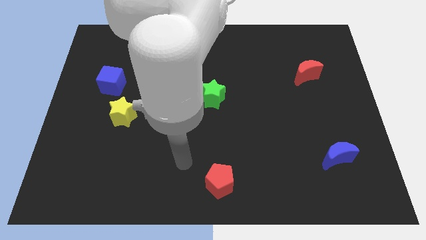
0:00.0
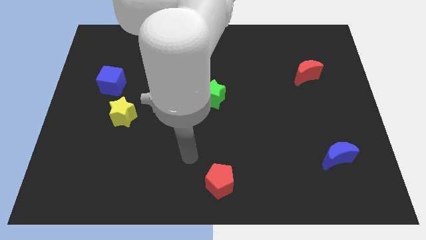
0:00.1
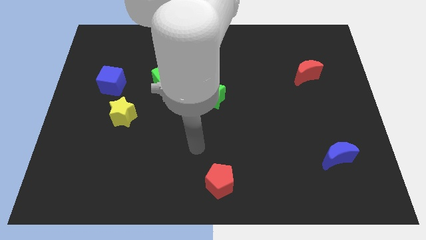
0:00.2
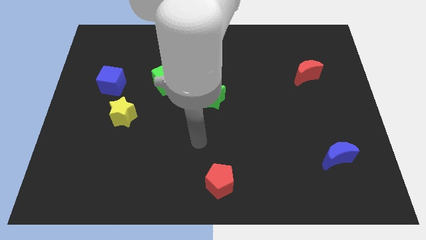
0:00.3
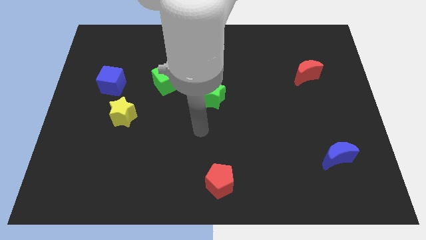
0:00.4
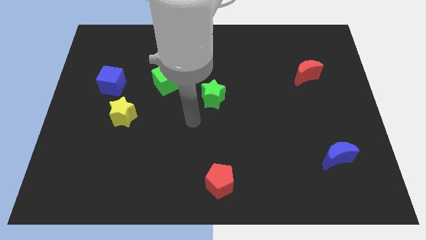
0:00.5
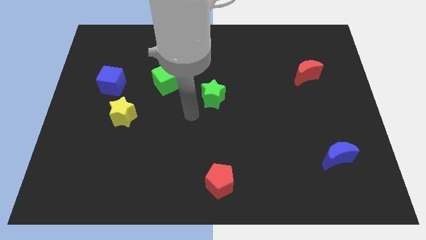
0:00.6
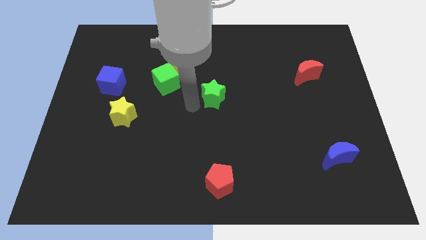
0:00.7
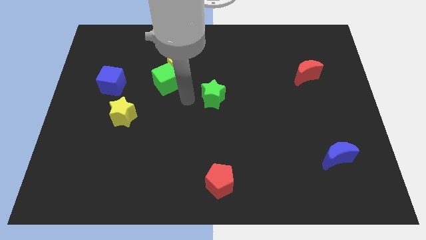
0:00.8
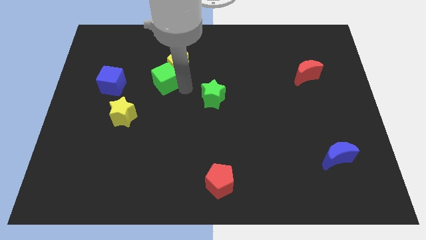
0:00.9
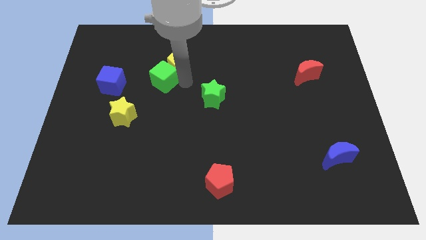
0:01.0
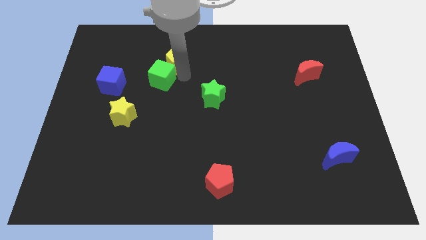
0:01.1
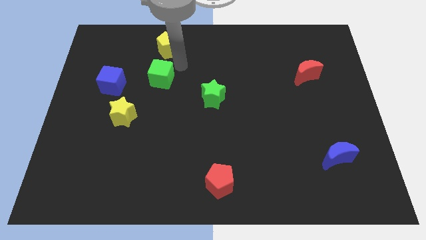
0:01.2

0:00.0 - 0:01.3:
pull the green cube apart from the yellow pentagon

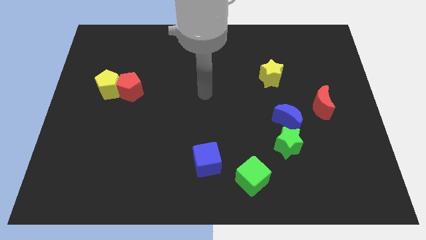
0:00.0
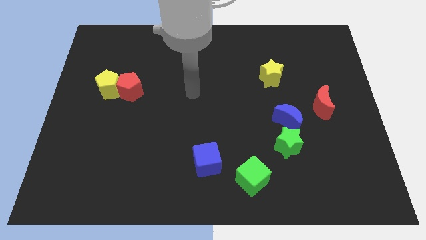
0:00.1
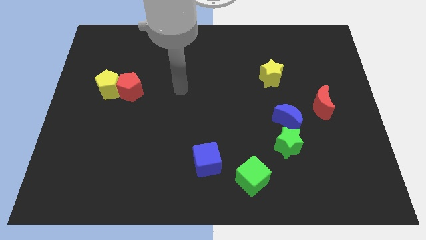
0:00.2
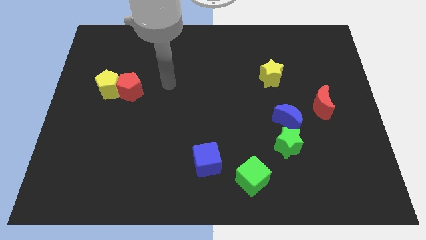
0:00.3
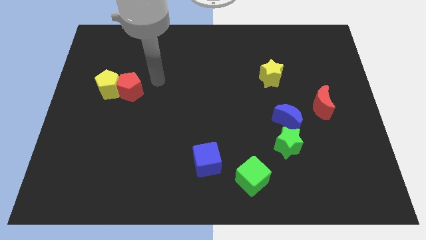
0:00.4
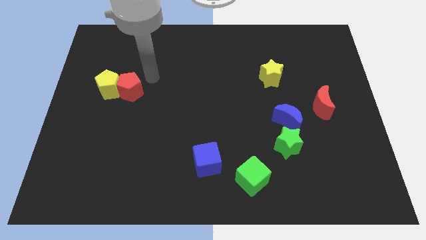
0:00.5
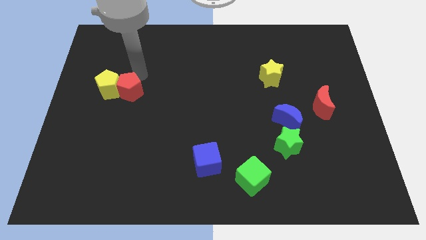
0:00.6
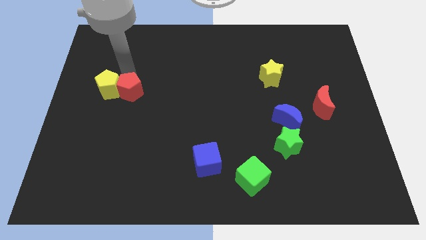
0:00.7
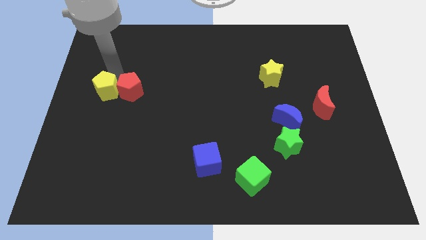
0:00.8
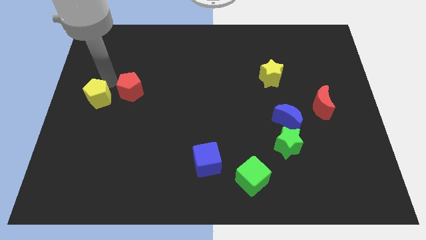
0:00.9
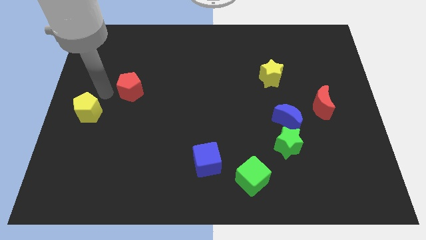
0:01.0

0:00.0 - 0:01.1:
separate the red pentagon from the yellow pentagon

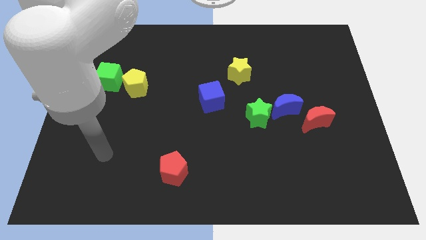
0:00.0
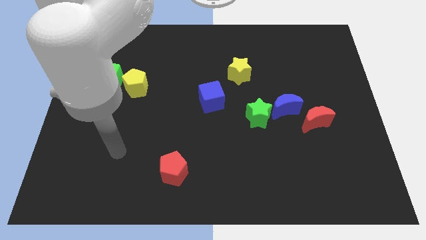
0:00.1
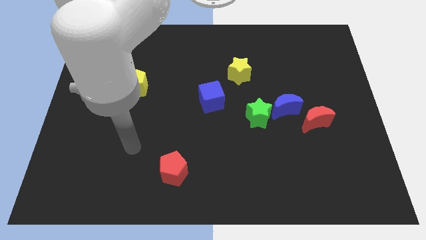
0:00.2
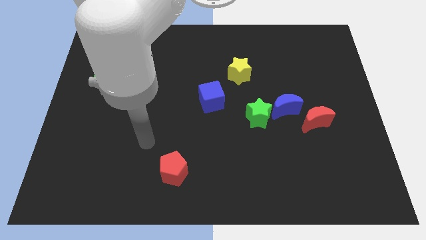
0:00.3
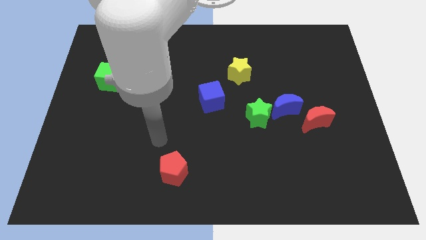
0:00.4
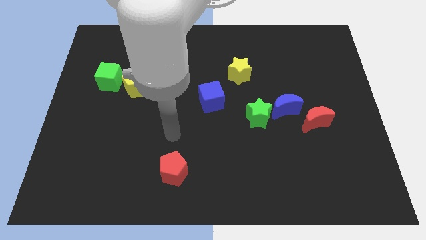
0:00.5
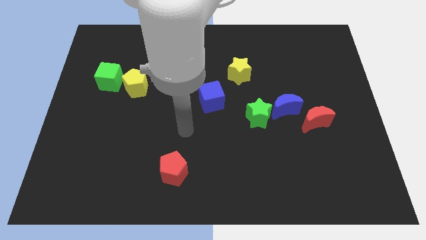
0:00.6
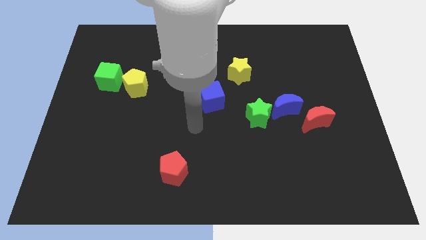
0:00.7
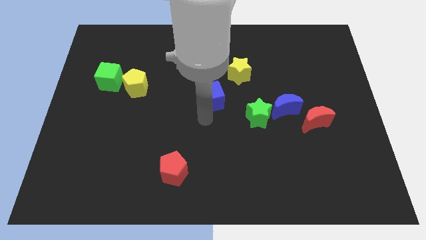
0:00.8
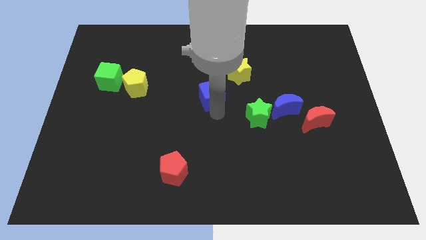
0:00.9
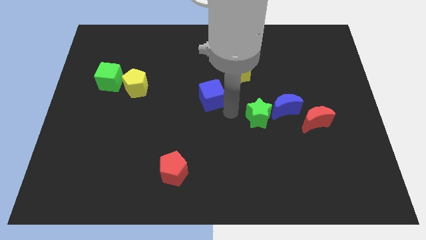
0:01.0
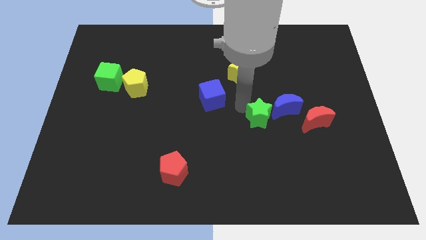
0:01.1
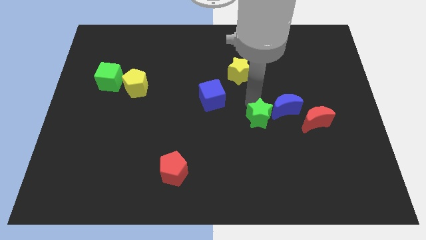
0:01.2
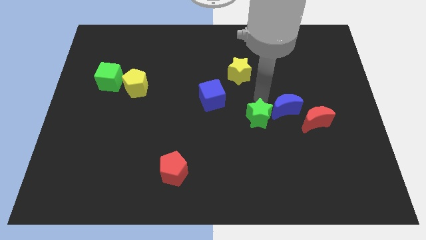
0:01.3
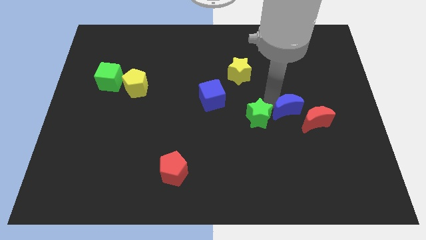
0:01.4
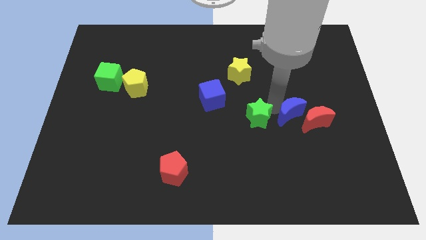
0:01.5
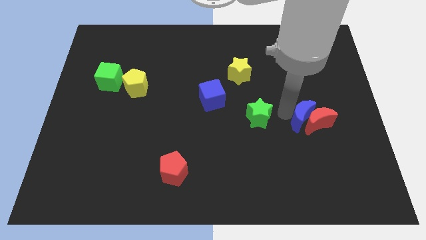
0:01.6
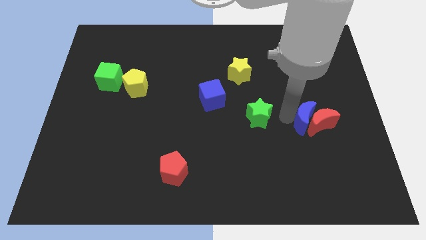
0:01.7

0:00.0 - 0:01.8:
pull the green star apart from the blue moon

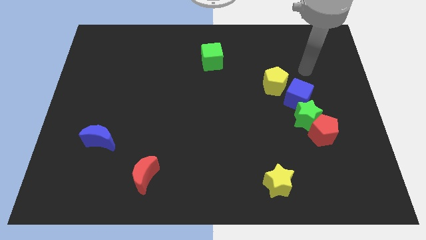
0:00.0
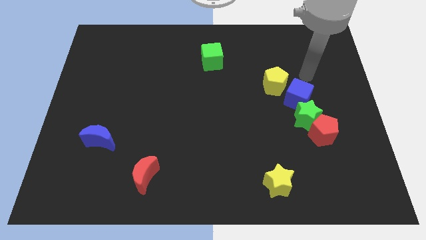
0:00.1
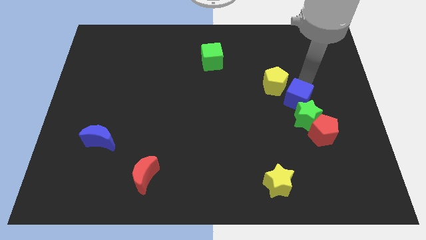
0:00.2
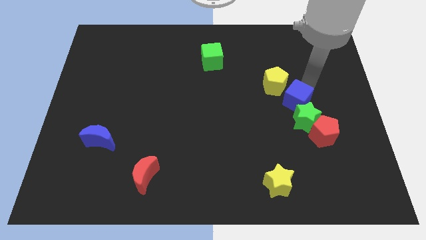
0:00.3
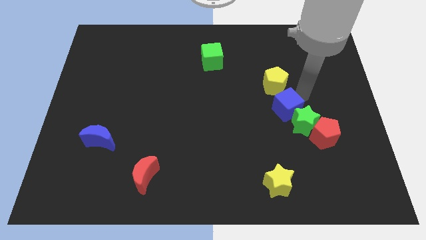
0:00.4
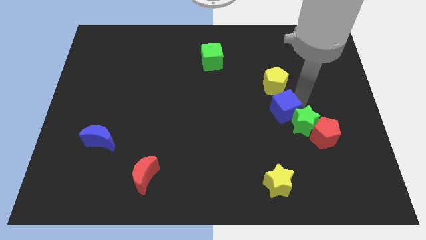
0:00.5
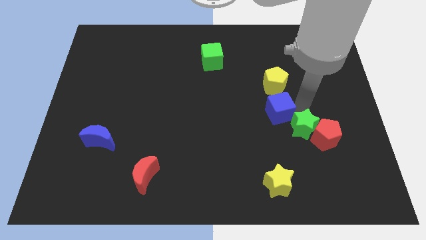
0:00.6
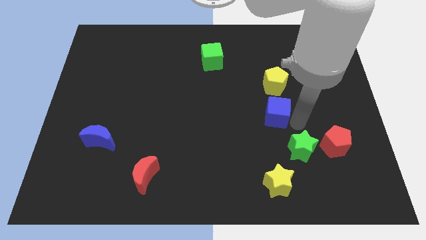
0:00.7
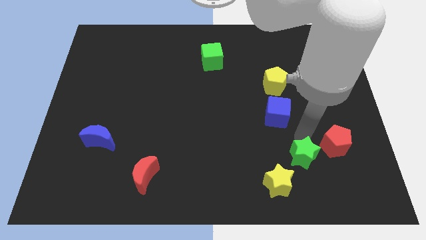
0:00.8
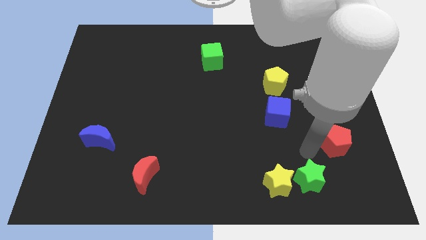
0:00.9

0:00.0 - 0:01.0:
move the red pentagon away from the green star

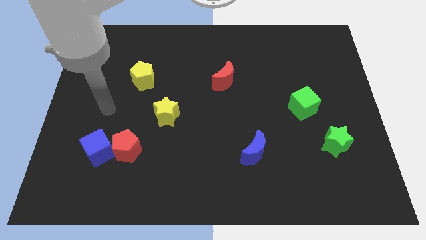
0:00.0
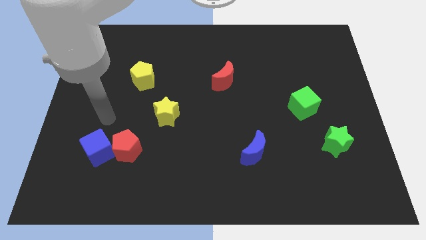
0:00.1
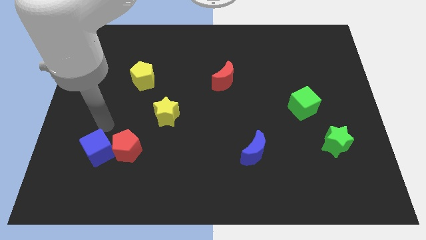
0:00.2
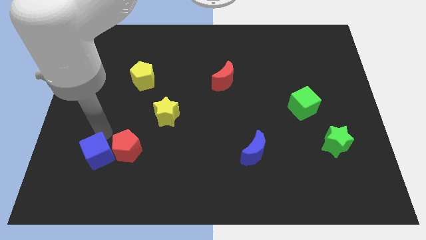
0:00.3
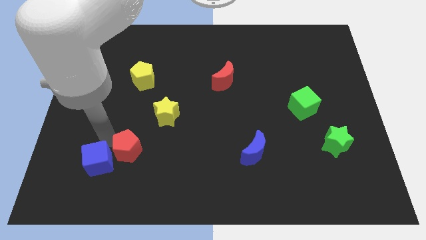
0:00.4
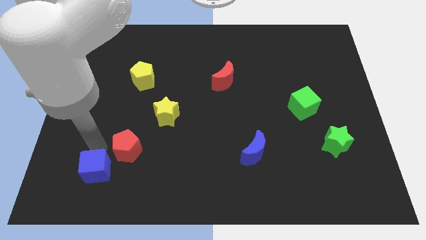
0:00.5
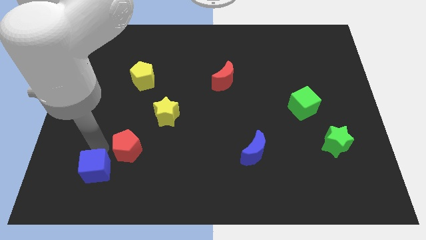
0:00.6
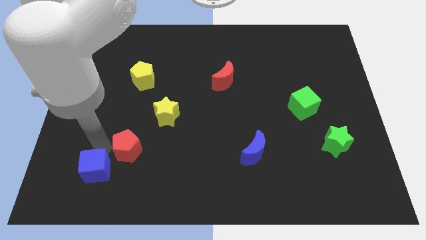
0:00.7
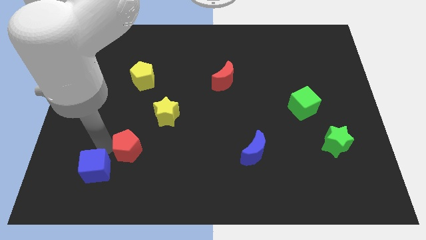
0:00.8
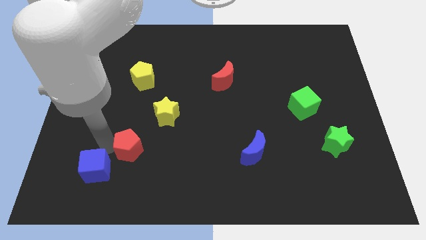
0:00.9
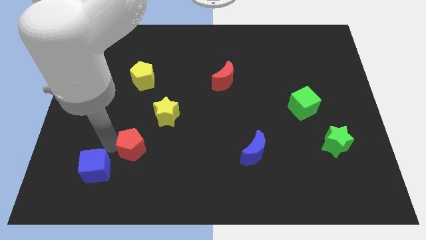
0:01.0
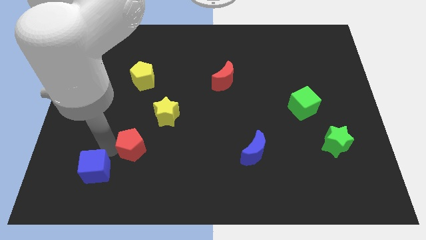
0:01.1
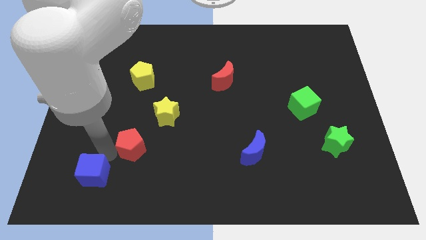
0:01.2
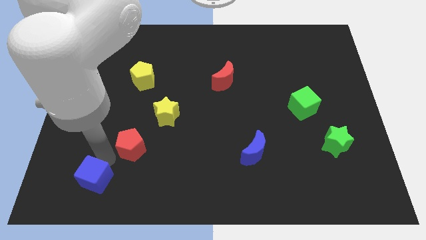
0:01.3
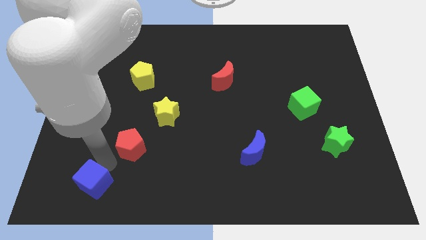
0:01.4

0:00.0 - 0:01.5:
pull the red pentagon apart from the blue cube

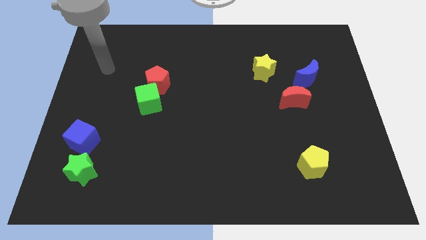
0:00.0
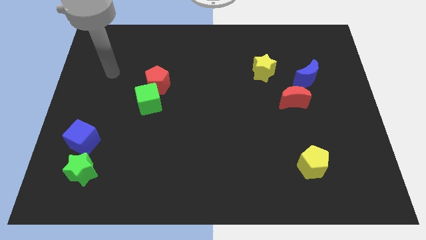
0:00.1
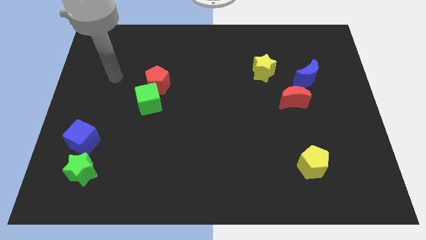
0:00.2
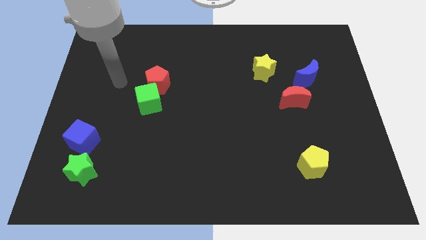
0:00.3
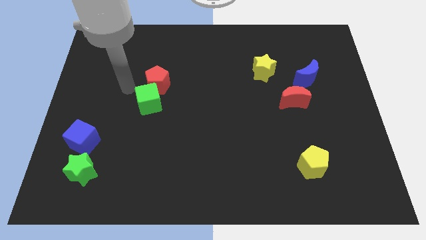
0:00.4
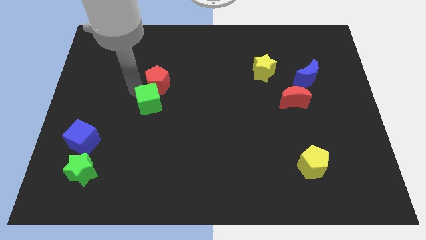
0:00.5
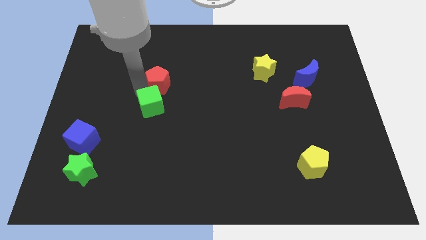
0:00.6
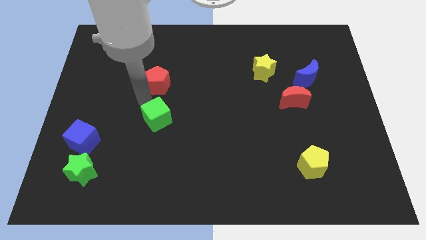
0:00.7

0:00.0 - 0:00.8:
separate the red pentagon from the green cube

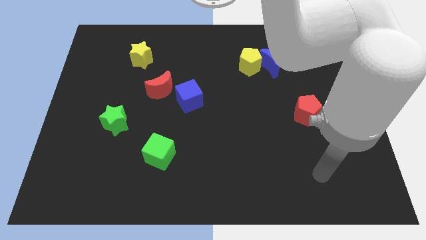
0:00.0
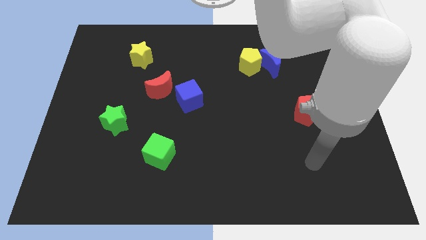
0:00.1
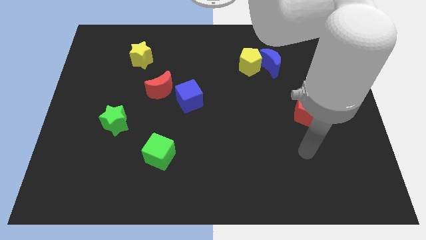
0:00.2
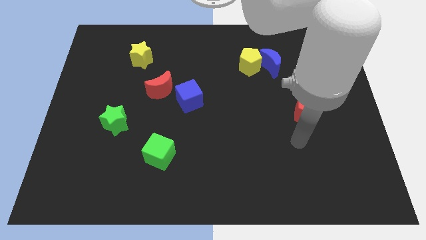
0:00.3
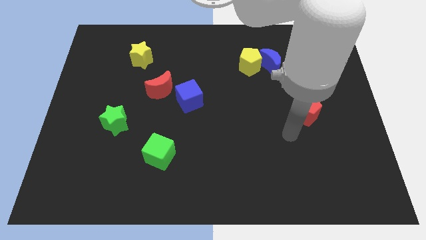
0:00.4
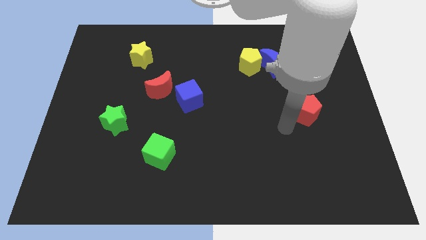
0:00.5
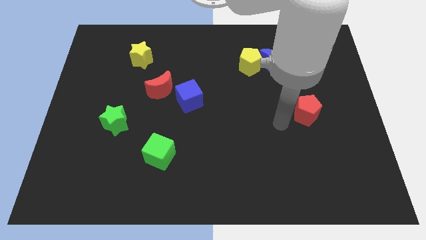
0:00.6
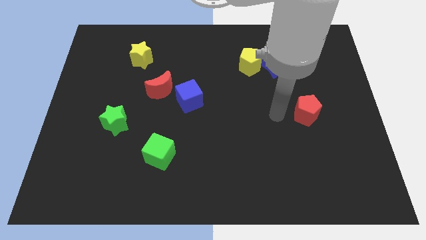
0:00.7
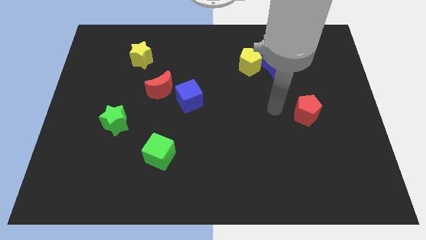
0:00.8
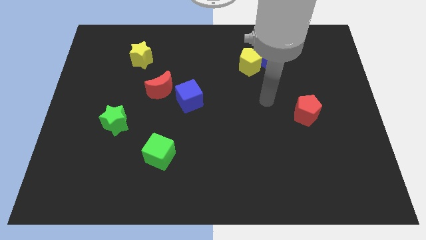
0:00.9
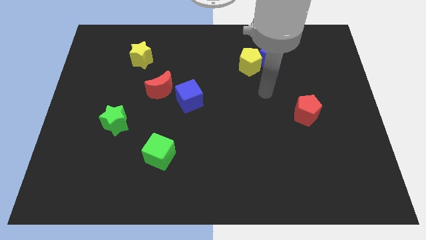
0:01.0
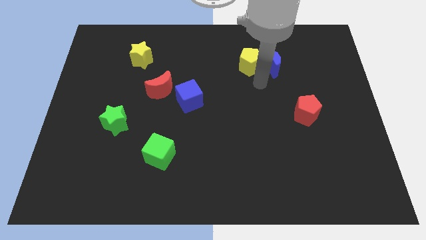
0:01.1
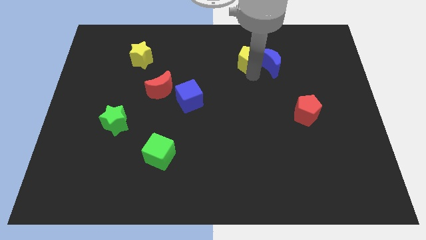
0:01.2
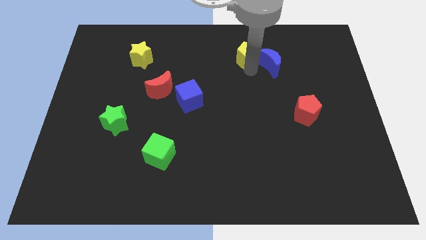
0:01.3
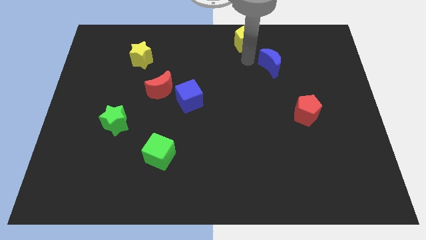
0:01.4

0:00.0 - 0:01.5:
pull the blue moon apart from the yellow pentagon

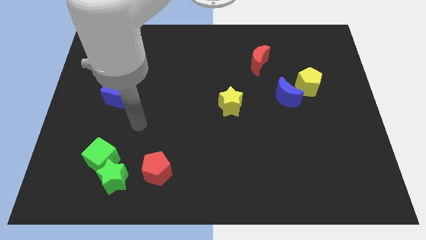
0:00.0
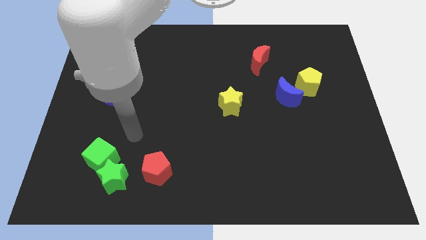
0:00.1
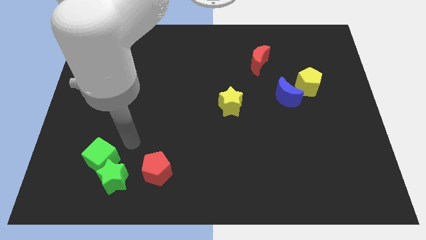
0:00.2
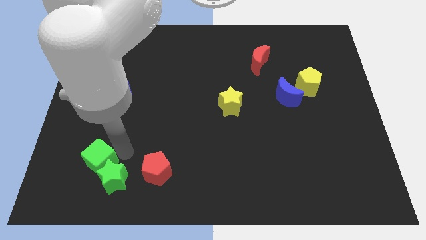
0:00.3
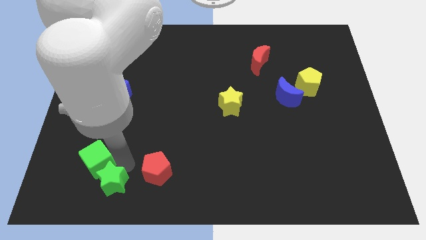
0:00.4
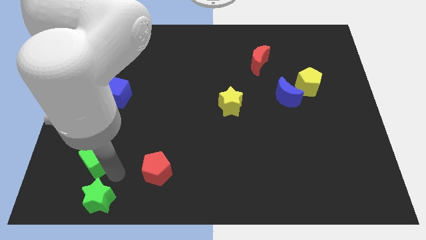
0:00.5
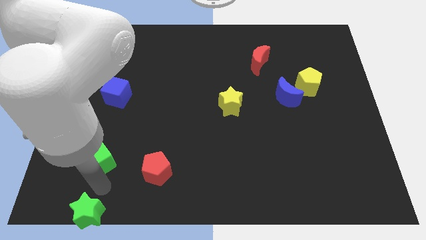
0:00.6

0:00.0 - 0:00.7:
move the green cube away from the green star
